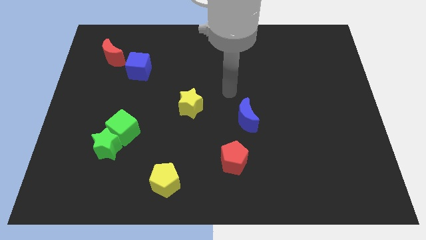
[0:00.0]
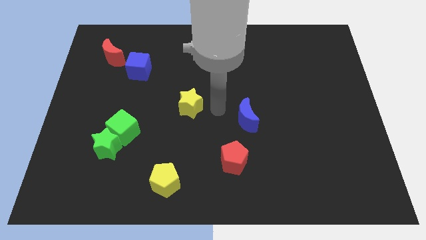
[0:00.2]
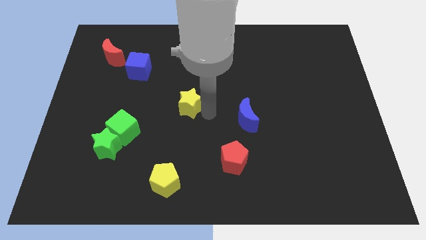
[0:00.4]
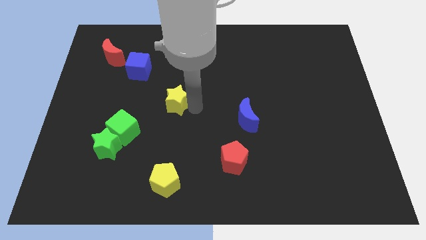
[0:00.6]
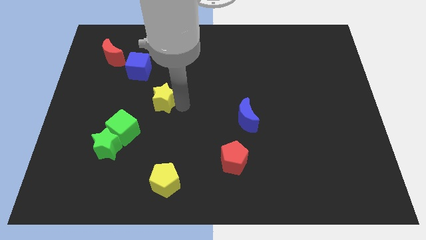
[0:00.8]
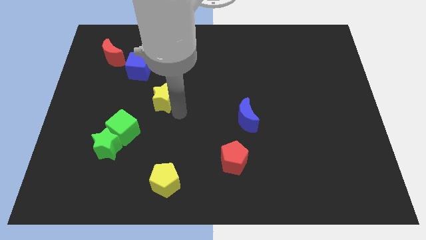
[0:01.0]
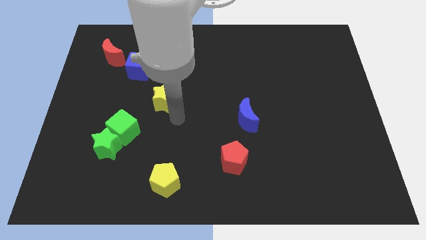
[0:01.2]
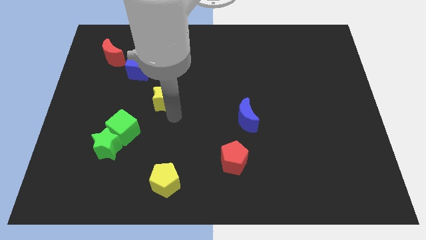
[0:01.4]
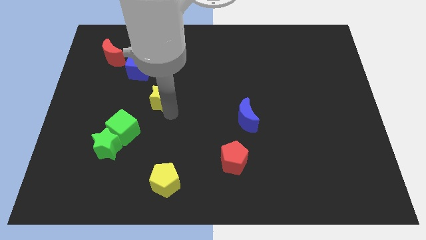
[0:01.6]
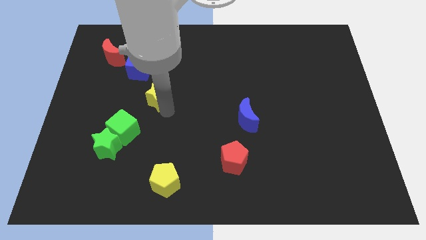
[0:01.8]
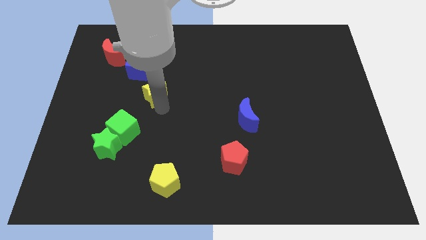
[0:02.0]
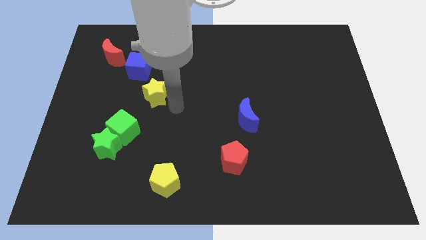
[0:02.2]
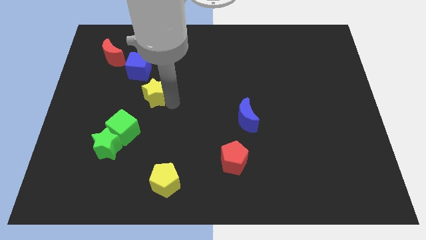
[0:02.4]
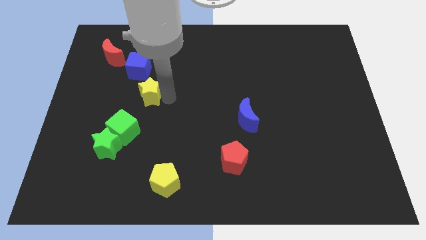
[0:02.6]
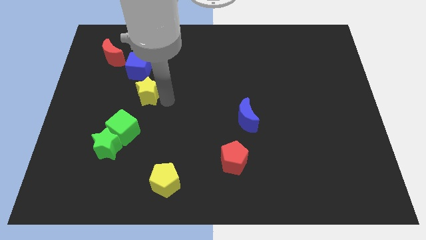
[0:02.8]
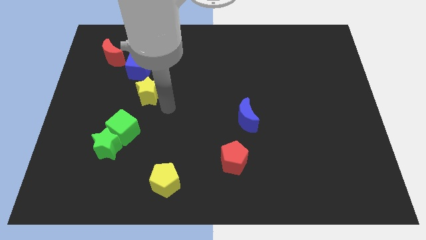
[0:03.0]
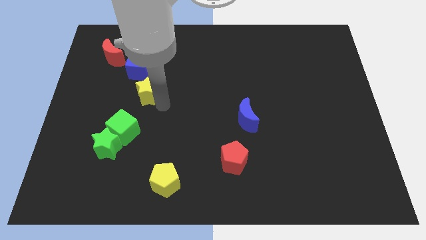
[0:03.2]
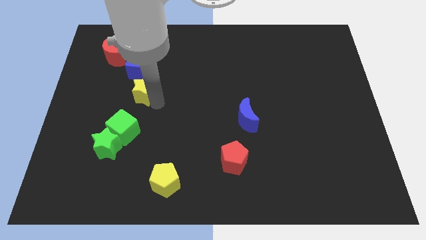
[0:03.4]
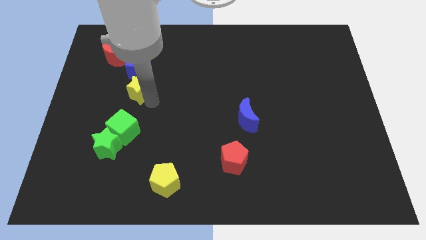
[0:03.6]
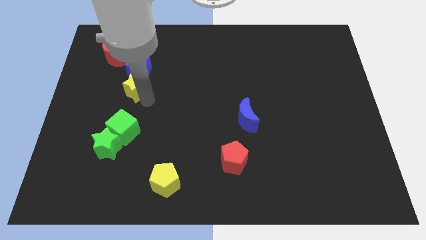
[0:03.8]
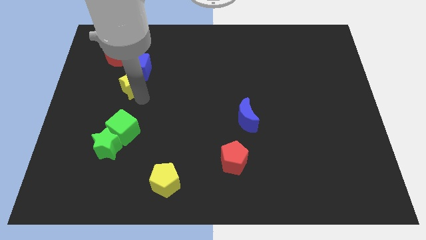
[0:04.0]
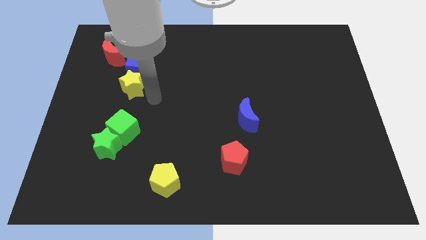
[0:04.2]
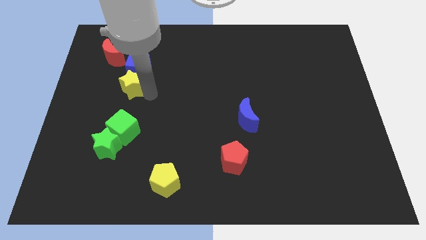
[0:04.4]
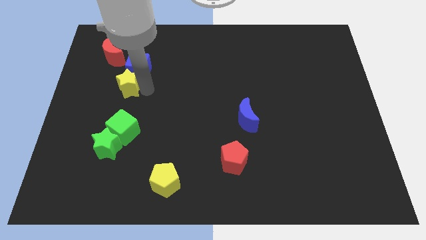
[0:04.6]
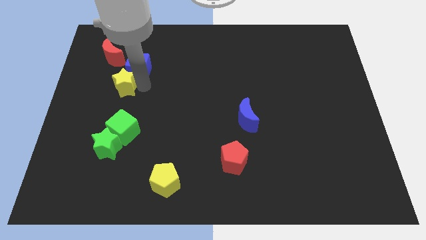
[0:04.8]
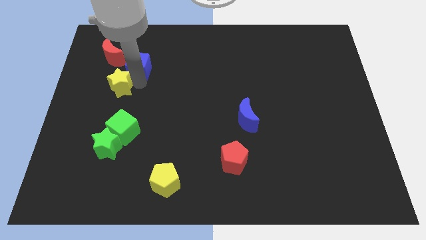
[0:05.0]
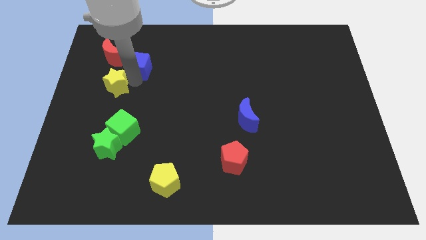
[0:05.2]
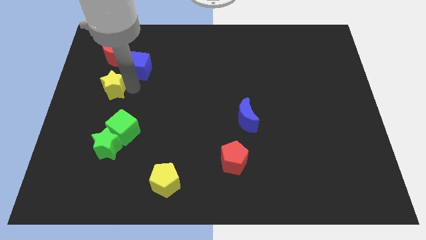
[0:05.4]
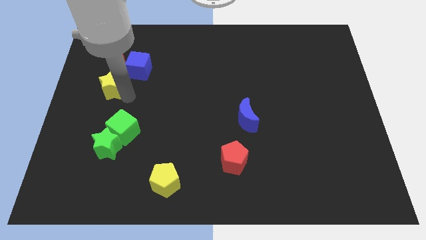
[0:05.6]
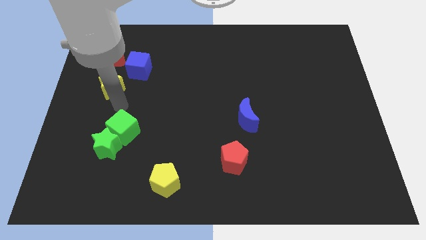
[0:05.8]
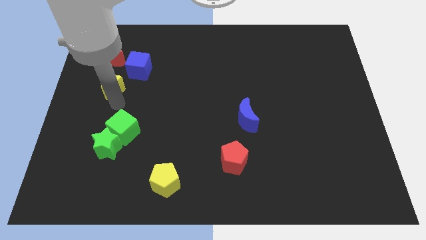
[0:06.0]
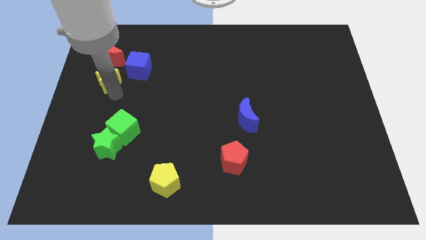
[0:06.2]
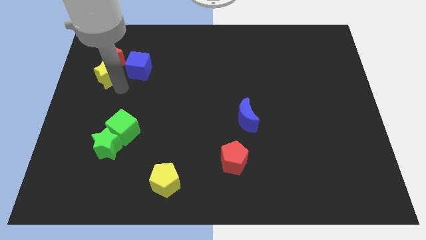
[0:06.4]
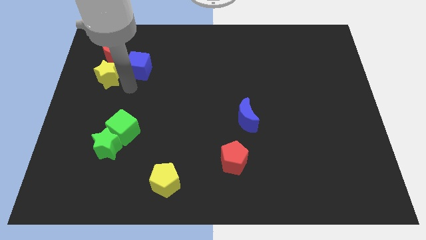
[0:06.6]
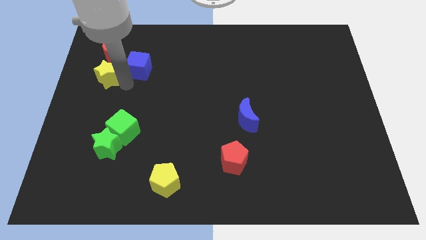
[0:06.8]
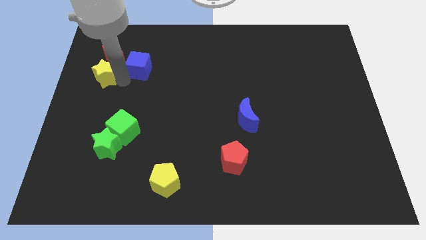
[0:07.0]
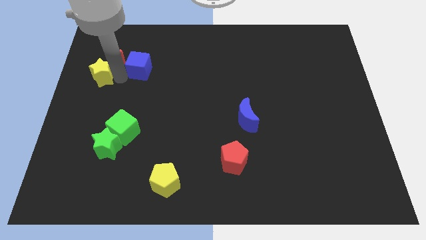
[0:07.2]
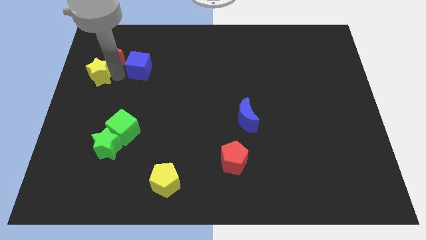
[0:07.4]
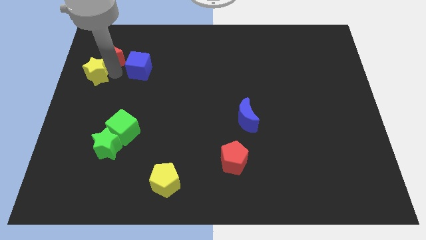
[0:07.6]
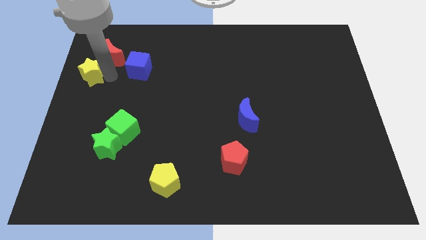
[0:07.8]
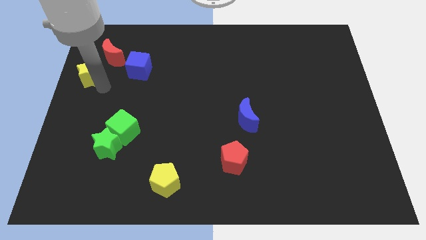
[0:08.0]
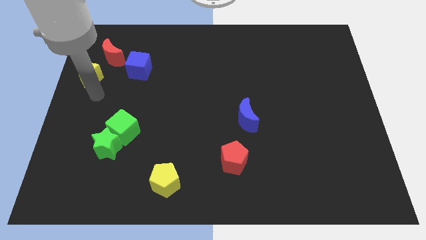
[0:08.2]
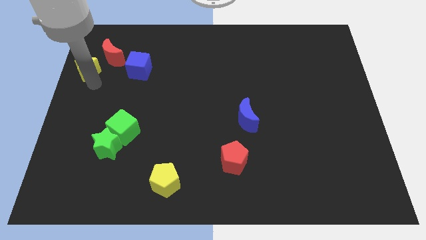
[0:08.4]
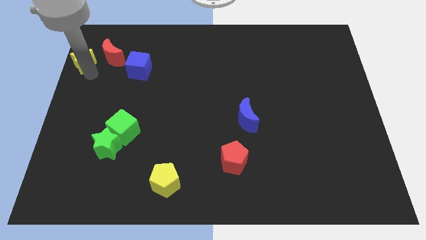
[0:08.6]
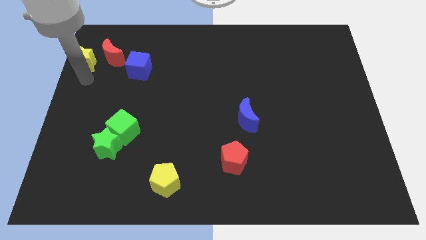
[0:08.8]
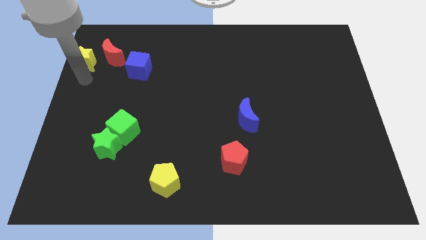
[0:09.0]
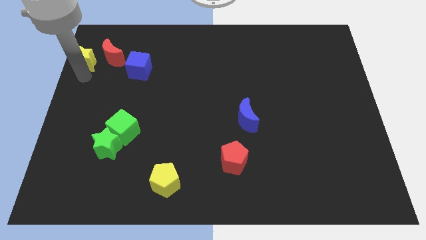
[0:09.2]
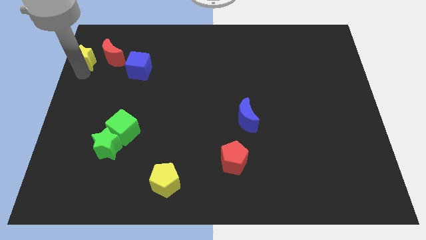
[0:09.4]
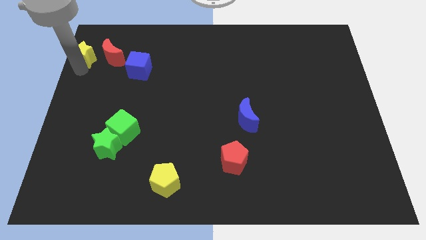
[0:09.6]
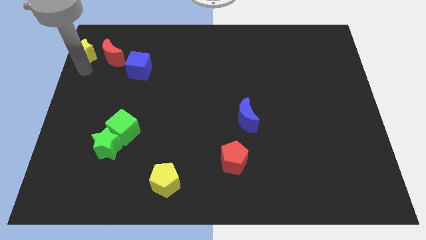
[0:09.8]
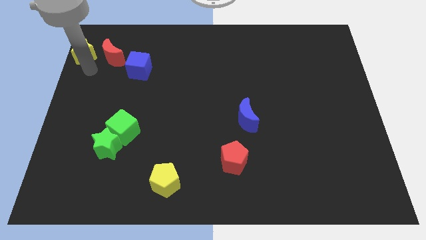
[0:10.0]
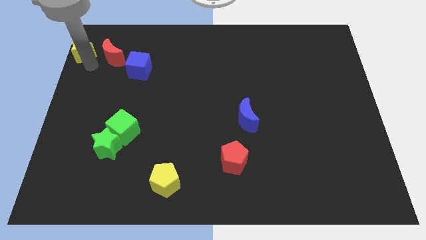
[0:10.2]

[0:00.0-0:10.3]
put the yellow star to the top left corner

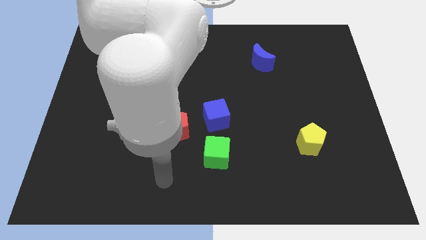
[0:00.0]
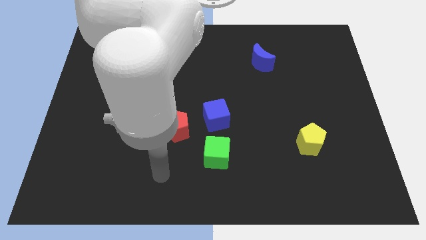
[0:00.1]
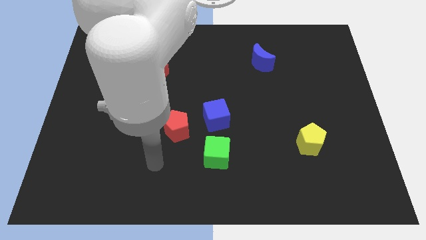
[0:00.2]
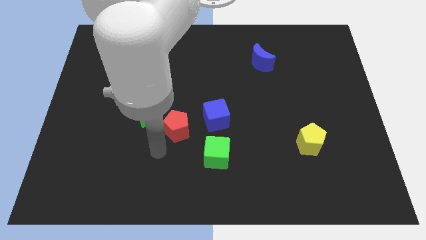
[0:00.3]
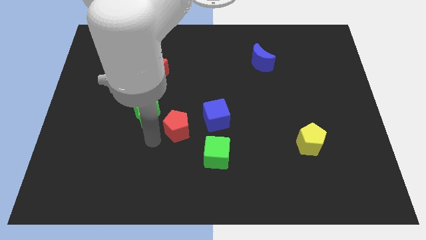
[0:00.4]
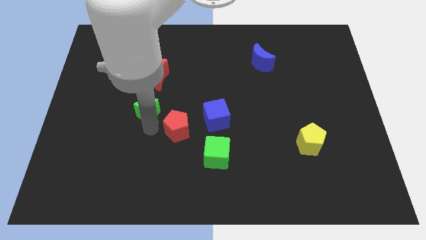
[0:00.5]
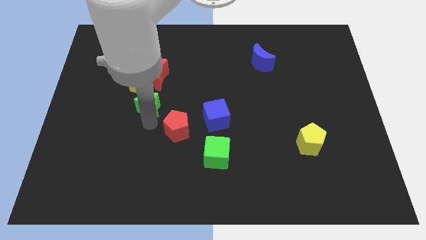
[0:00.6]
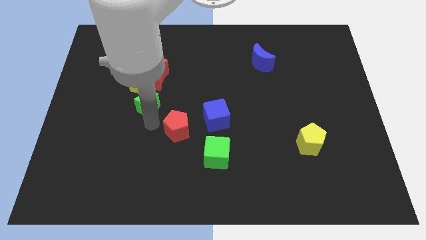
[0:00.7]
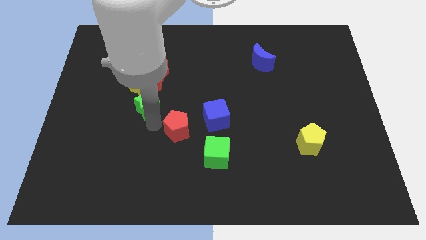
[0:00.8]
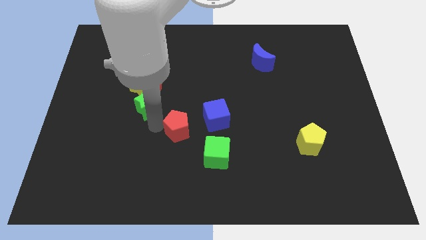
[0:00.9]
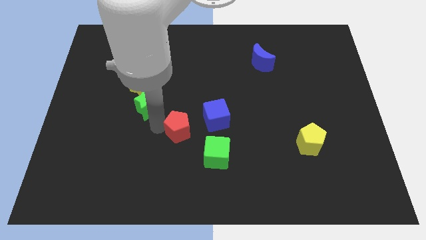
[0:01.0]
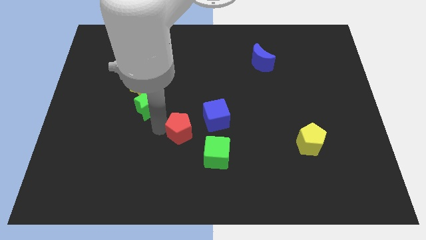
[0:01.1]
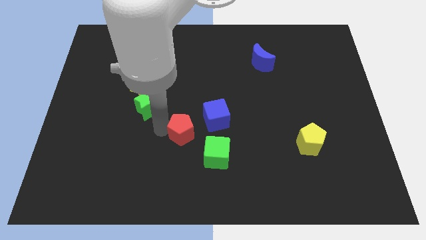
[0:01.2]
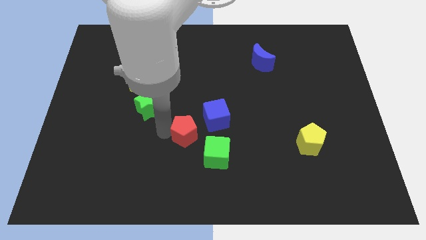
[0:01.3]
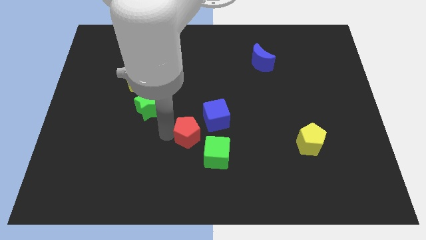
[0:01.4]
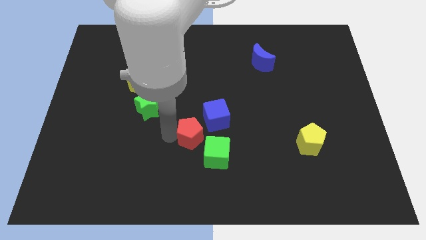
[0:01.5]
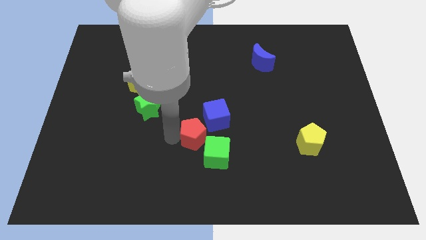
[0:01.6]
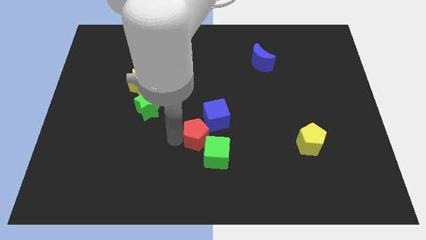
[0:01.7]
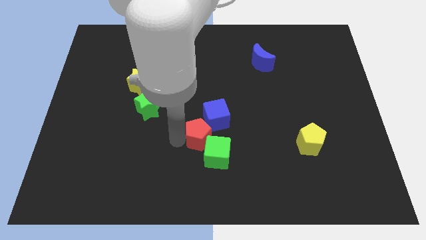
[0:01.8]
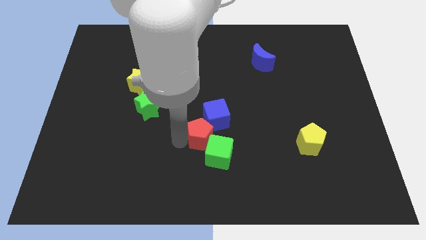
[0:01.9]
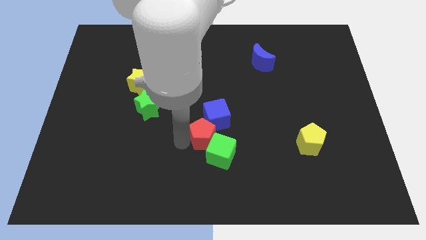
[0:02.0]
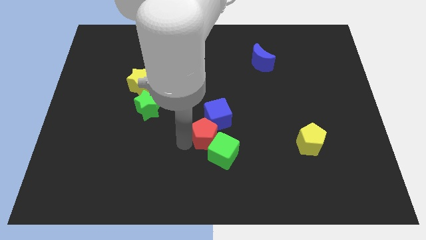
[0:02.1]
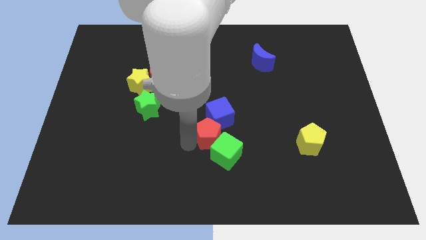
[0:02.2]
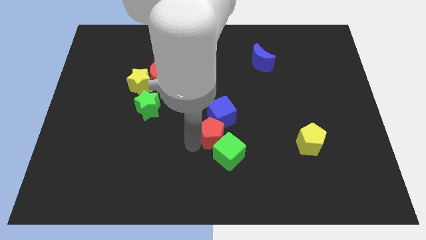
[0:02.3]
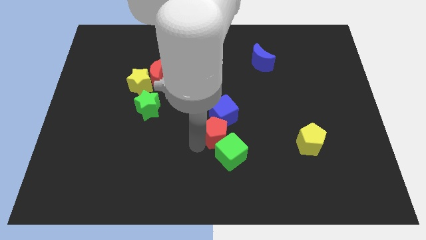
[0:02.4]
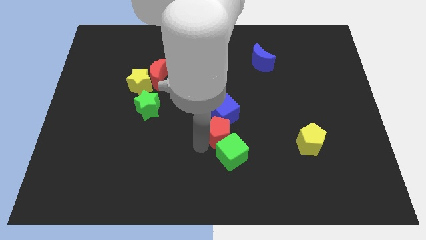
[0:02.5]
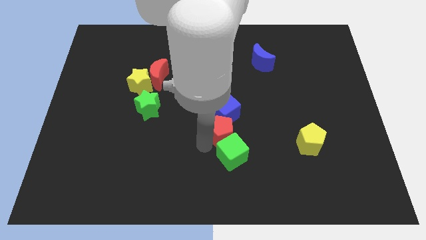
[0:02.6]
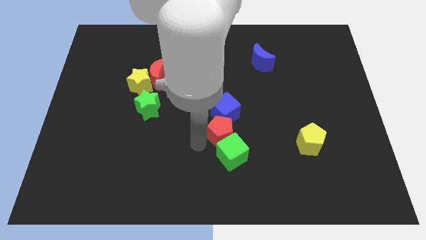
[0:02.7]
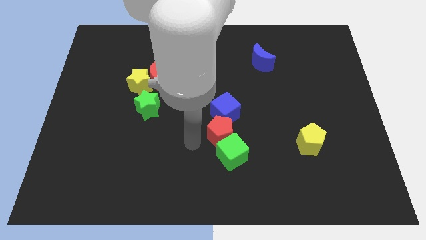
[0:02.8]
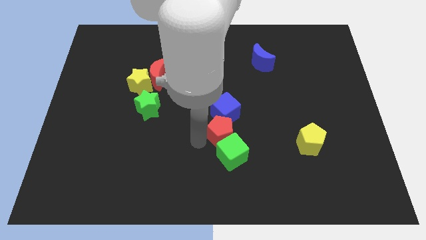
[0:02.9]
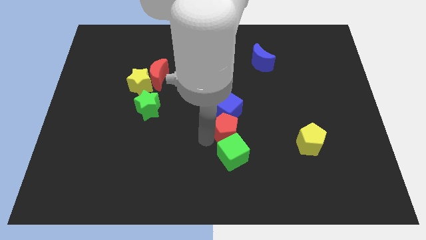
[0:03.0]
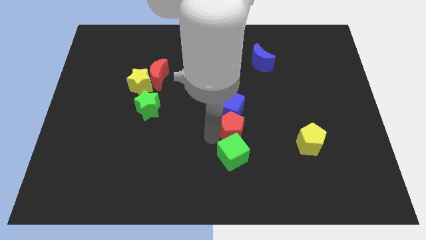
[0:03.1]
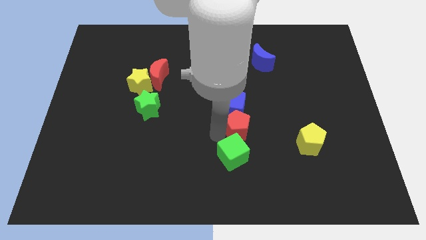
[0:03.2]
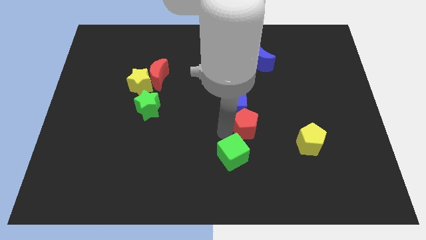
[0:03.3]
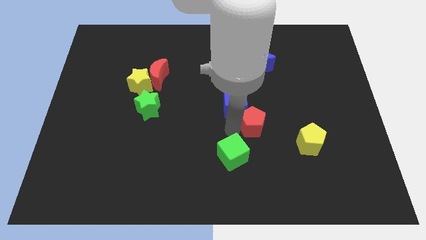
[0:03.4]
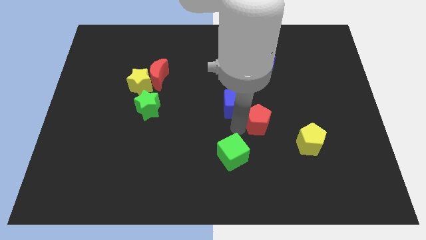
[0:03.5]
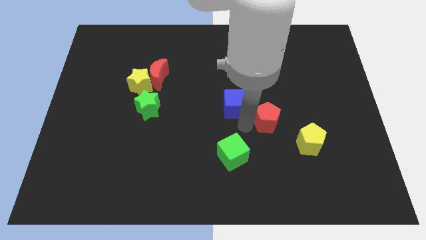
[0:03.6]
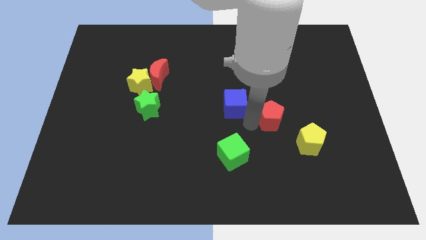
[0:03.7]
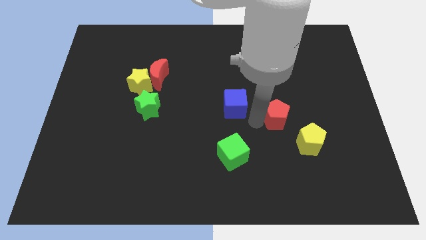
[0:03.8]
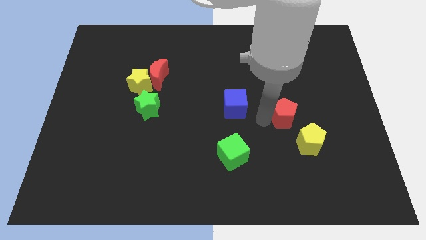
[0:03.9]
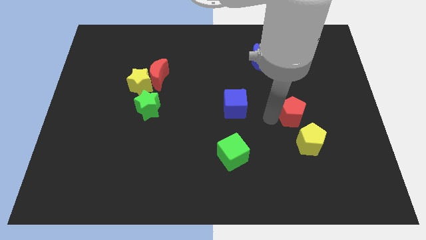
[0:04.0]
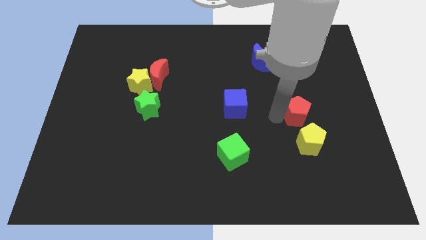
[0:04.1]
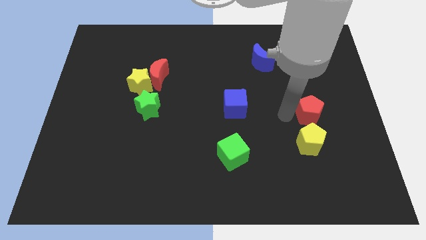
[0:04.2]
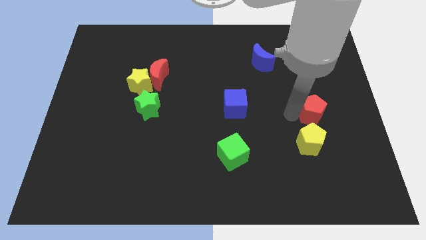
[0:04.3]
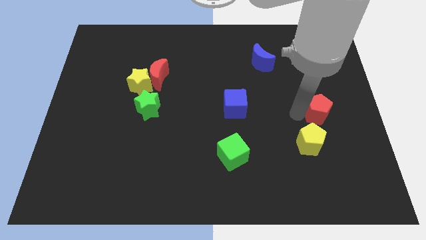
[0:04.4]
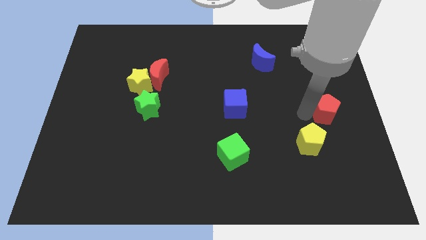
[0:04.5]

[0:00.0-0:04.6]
slide the red pentagon to the right side
